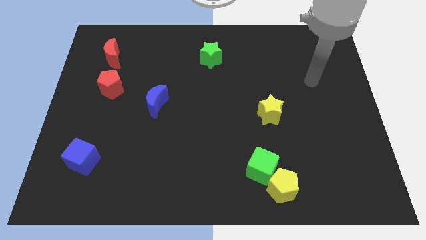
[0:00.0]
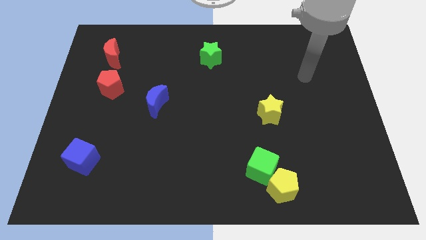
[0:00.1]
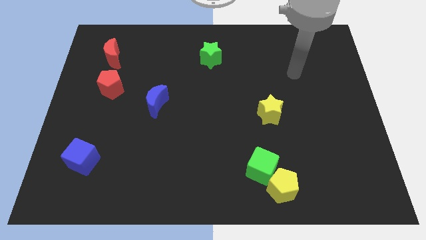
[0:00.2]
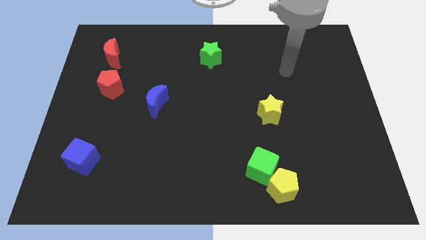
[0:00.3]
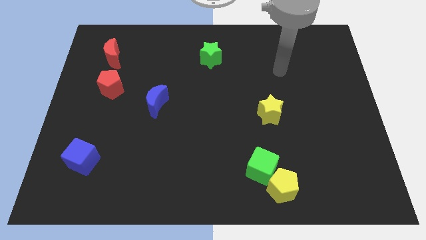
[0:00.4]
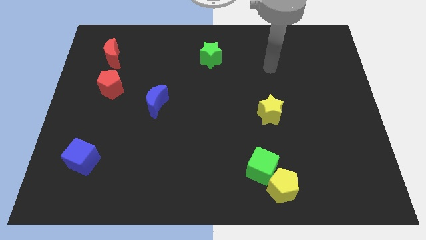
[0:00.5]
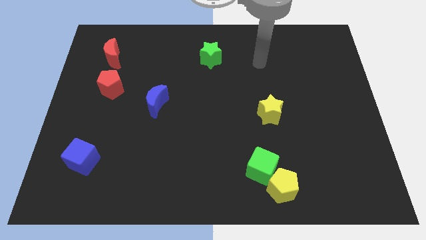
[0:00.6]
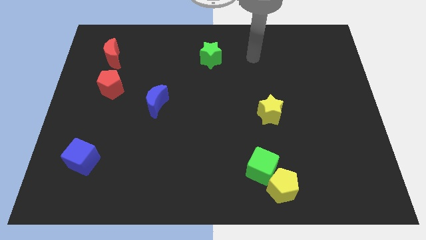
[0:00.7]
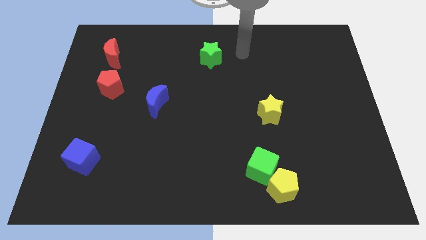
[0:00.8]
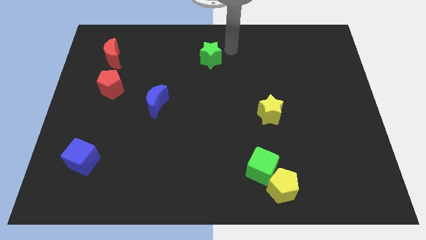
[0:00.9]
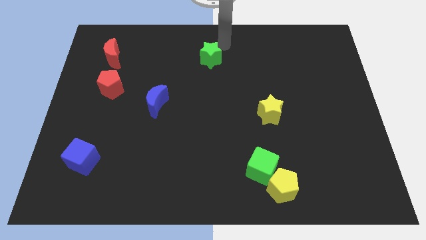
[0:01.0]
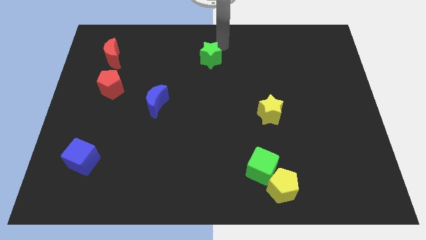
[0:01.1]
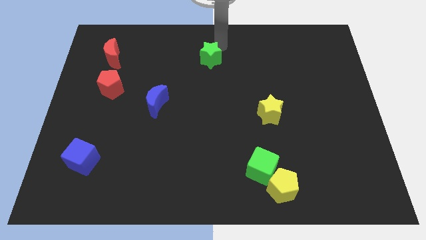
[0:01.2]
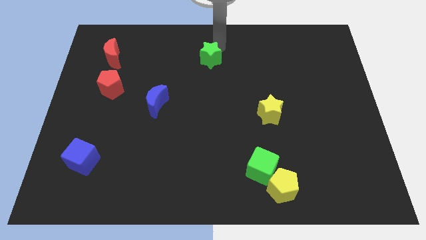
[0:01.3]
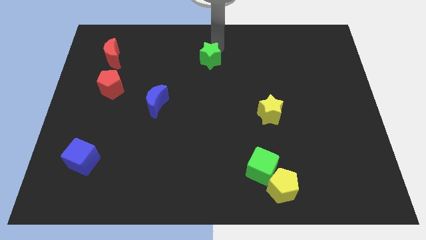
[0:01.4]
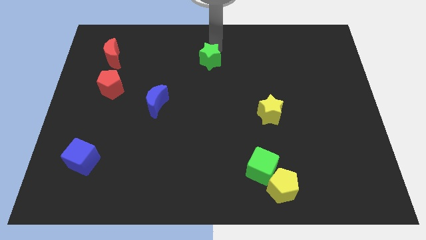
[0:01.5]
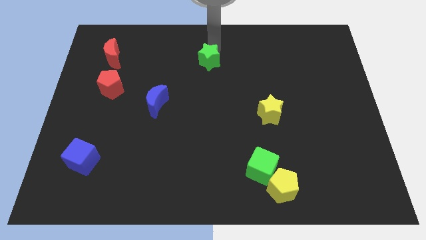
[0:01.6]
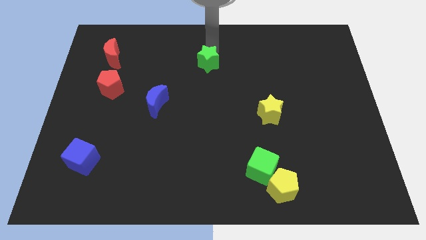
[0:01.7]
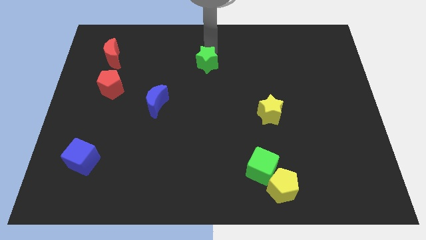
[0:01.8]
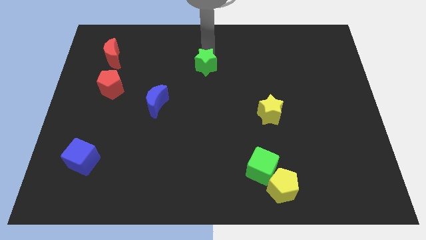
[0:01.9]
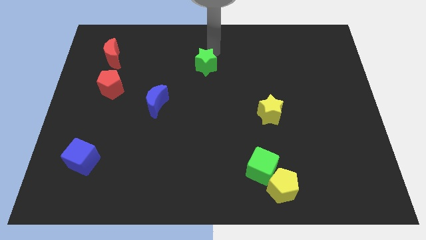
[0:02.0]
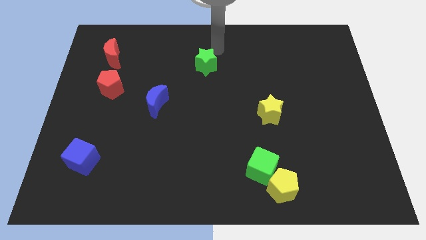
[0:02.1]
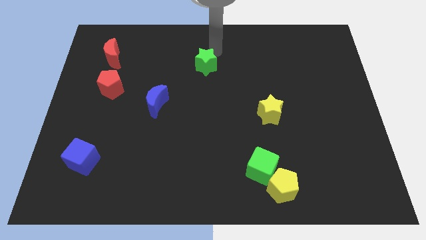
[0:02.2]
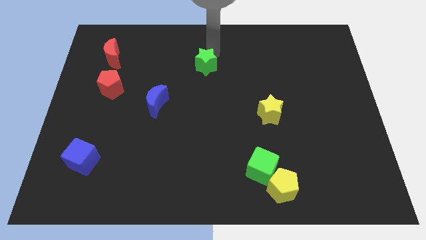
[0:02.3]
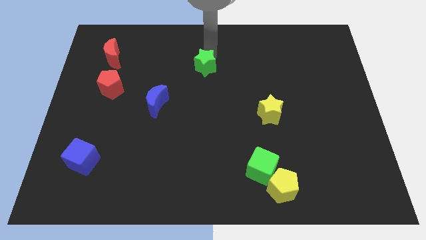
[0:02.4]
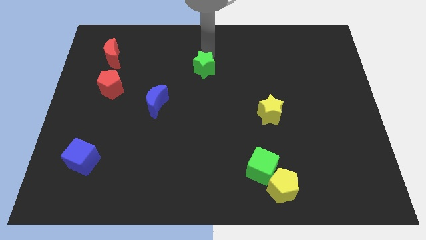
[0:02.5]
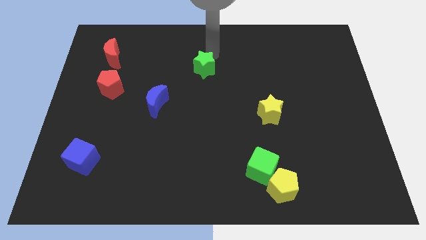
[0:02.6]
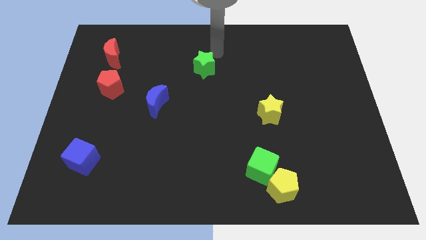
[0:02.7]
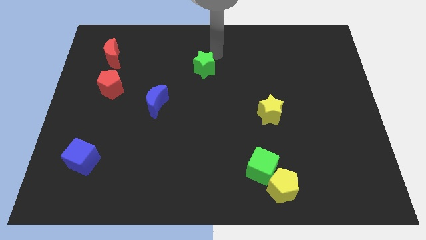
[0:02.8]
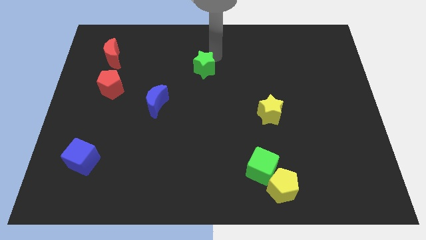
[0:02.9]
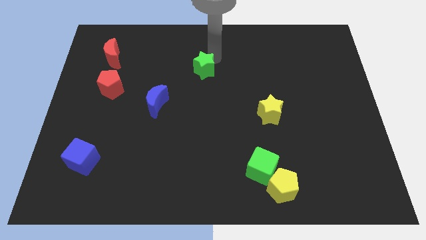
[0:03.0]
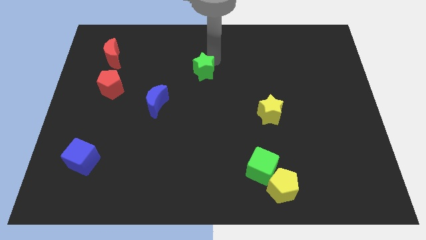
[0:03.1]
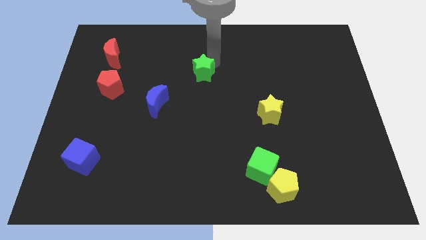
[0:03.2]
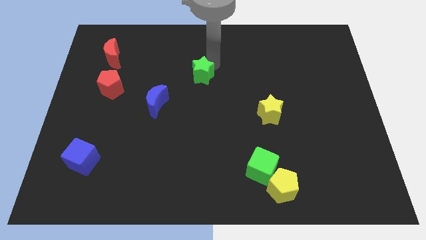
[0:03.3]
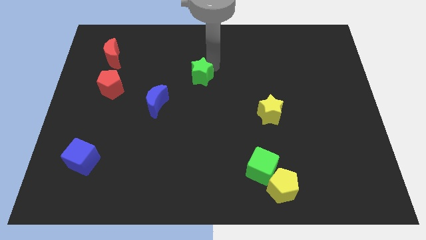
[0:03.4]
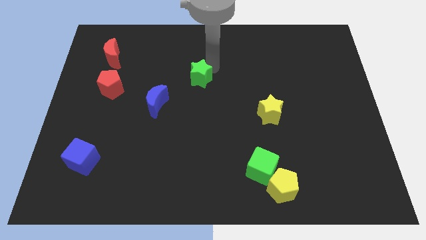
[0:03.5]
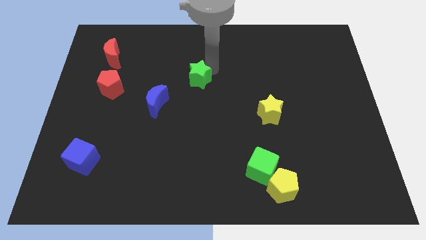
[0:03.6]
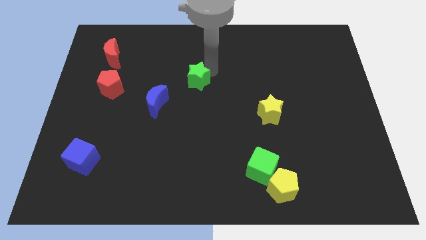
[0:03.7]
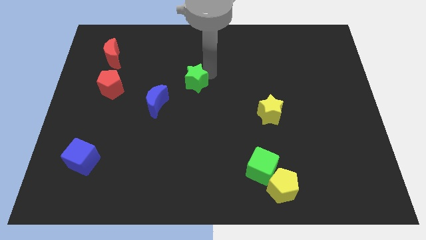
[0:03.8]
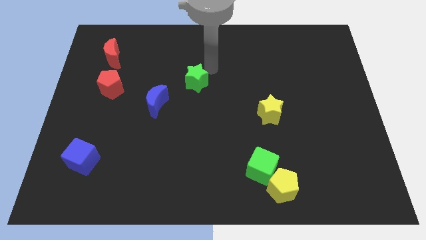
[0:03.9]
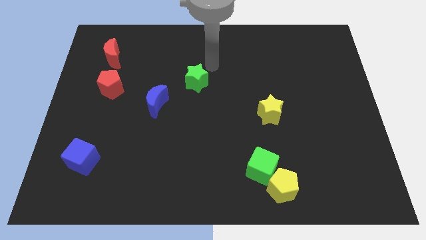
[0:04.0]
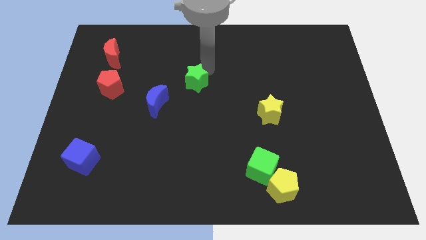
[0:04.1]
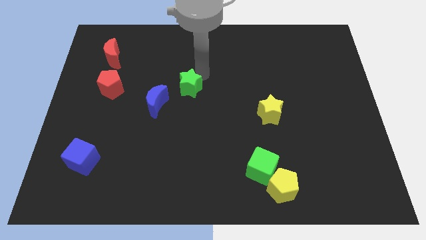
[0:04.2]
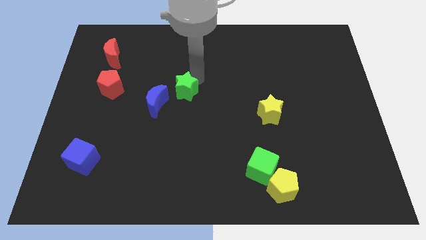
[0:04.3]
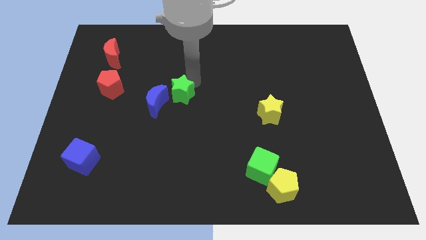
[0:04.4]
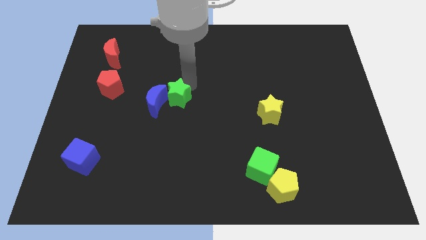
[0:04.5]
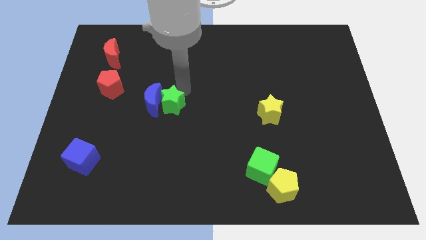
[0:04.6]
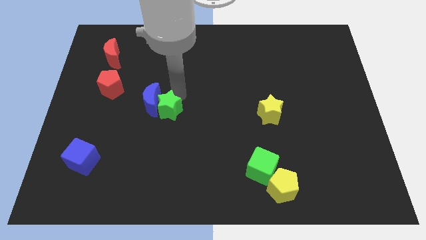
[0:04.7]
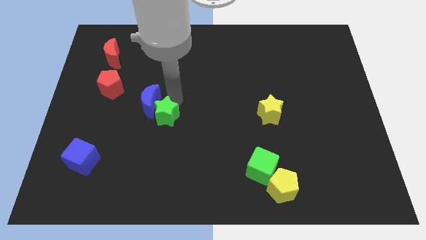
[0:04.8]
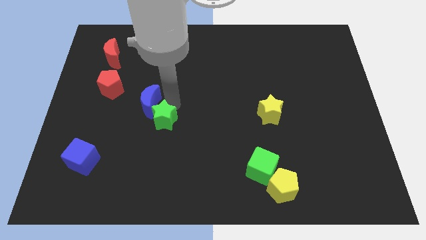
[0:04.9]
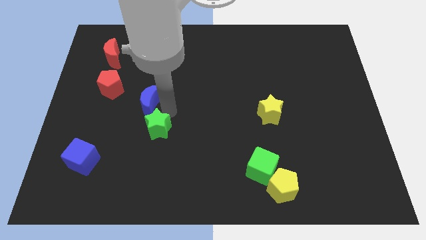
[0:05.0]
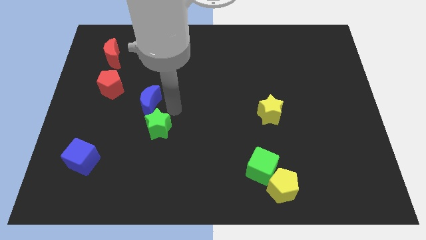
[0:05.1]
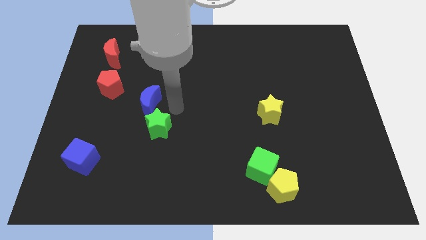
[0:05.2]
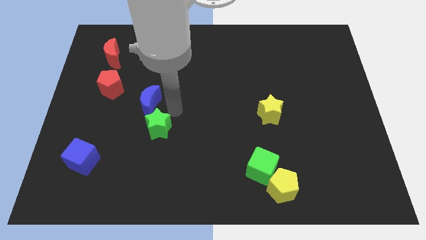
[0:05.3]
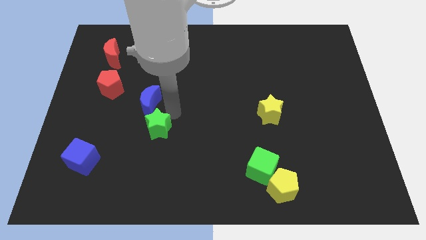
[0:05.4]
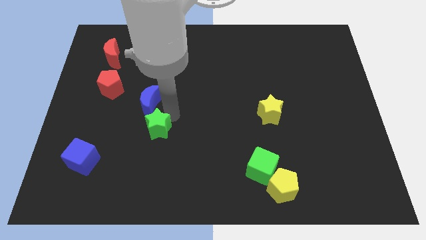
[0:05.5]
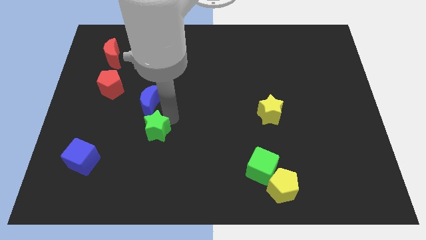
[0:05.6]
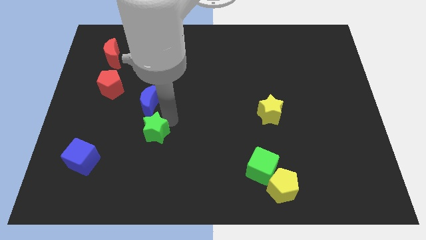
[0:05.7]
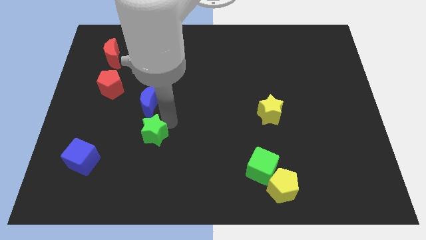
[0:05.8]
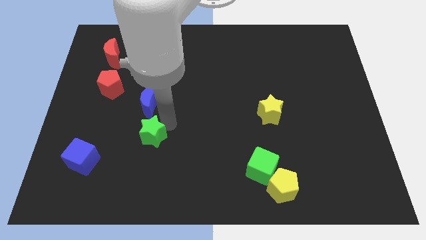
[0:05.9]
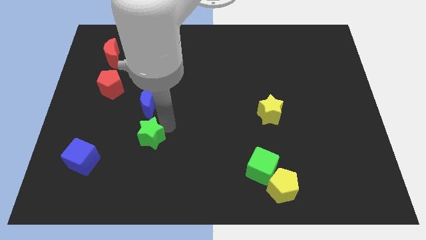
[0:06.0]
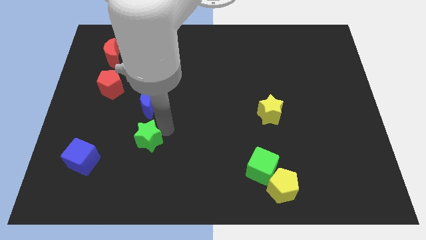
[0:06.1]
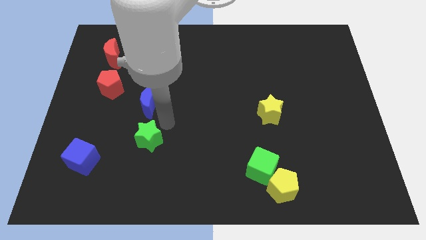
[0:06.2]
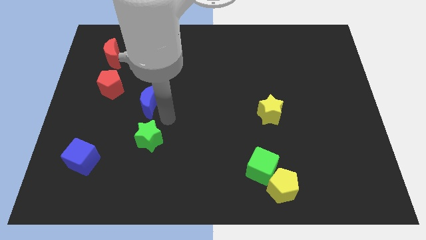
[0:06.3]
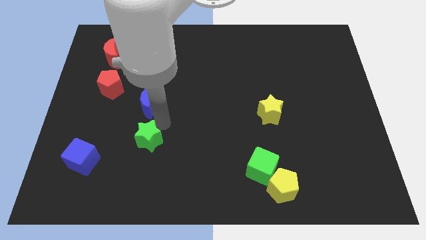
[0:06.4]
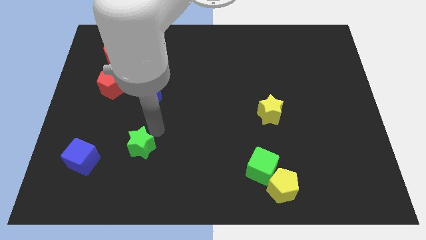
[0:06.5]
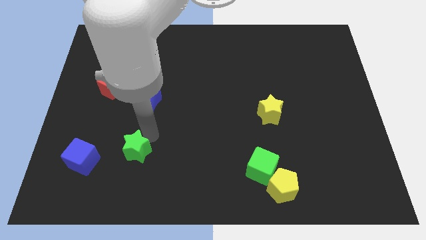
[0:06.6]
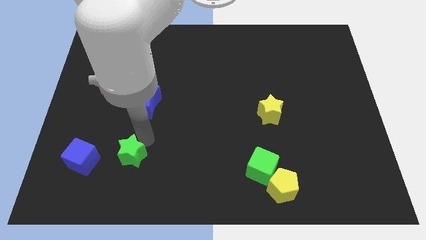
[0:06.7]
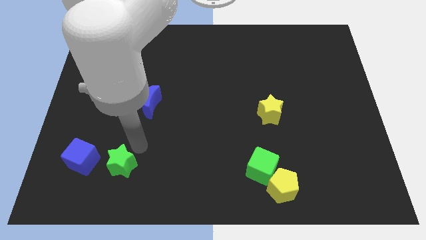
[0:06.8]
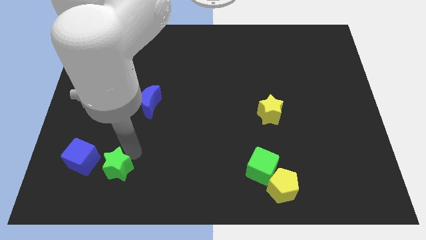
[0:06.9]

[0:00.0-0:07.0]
slide the green star to the bottom right side of the blue cube

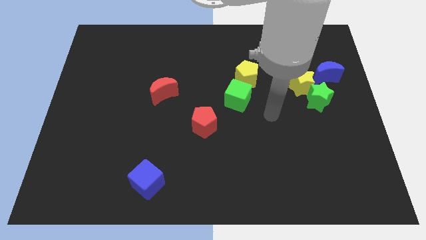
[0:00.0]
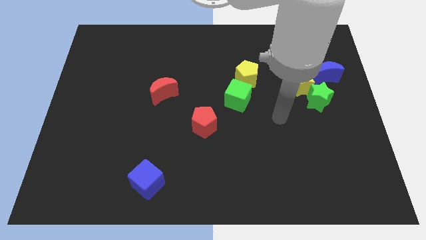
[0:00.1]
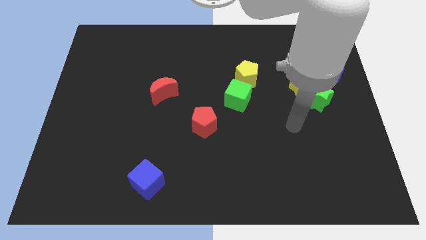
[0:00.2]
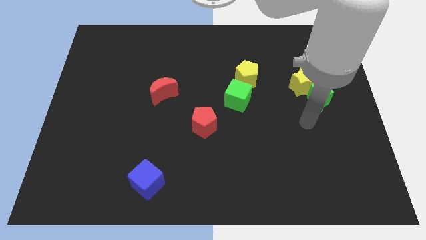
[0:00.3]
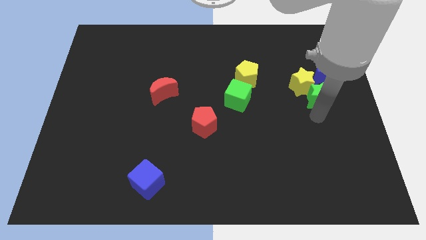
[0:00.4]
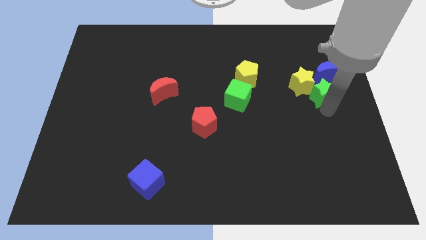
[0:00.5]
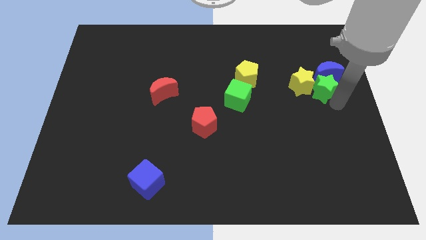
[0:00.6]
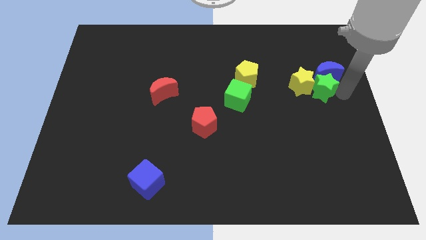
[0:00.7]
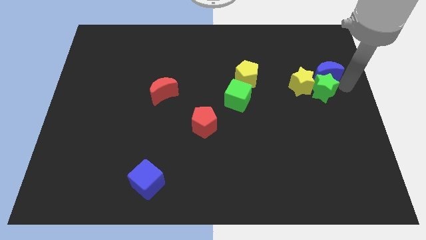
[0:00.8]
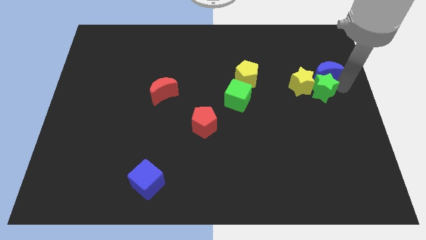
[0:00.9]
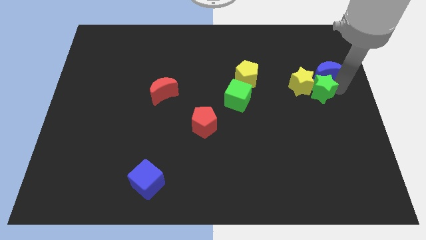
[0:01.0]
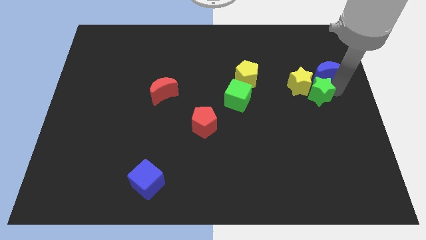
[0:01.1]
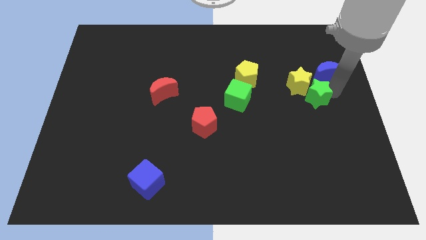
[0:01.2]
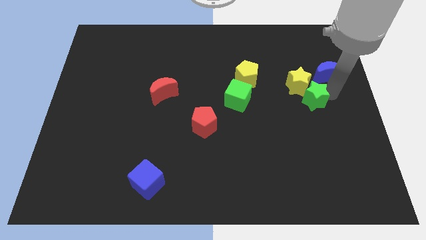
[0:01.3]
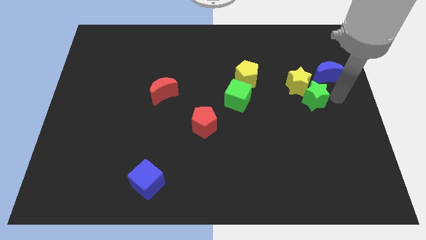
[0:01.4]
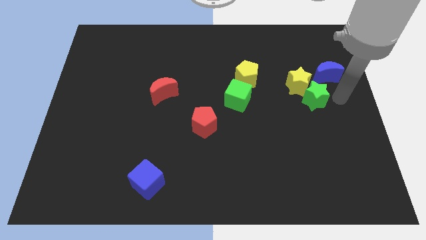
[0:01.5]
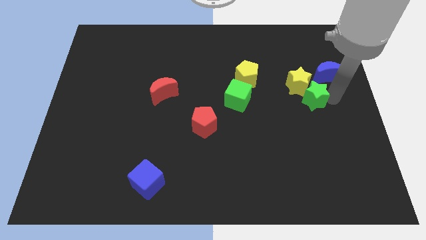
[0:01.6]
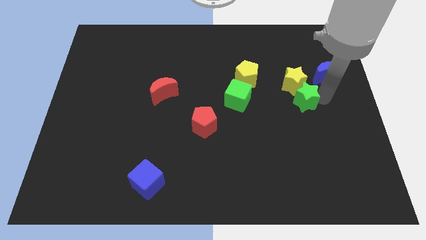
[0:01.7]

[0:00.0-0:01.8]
slide the green star to the right of the green cube
